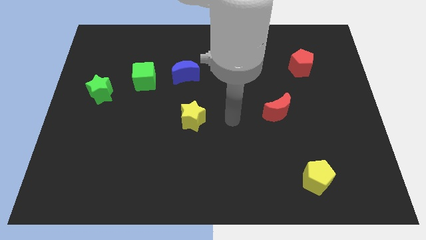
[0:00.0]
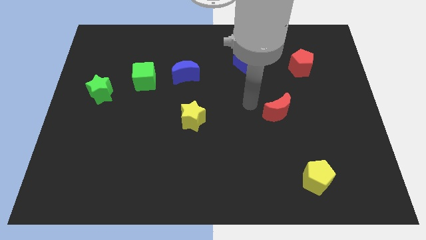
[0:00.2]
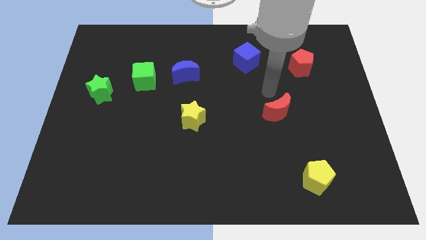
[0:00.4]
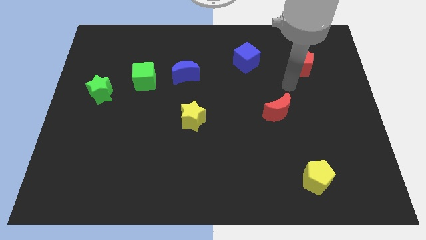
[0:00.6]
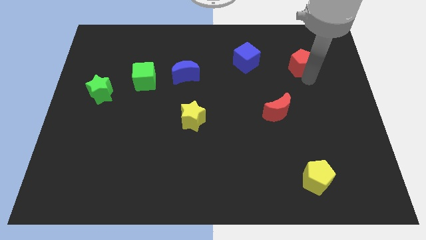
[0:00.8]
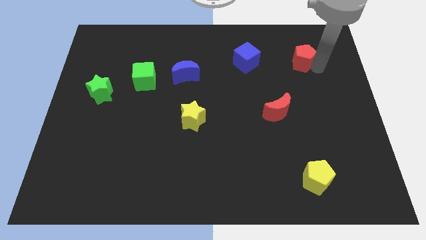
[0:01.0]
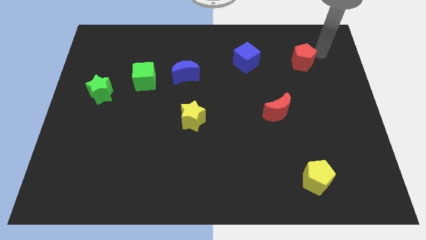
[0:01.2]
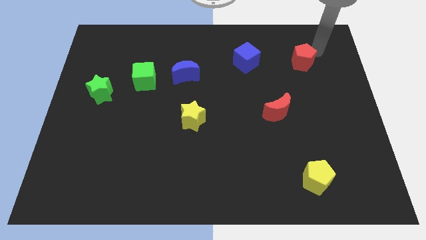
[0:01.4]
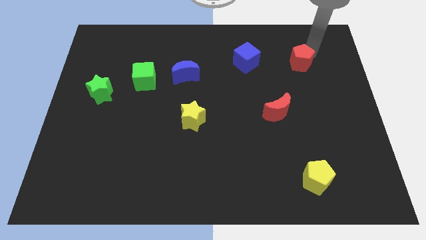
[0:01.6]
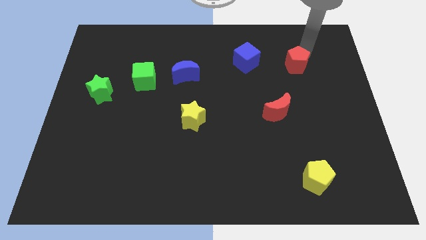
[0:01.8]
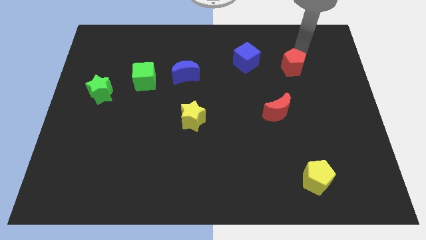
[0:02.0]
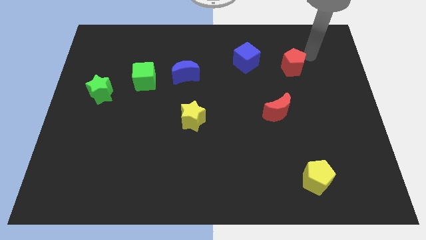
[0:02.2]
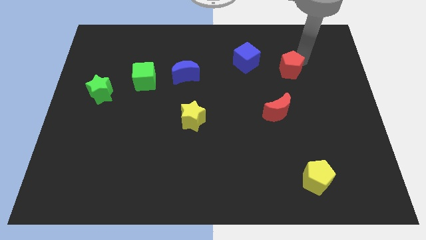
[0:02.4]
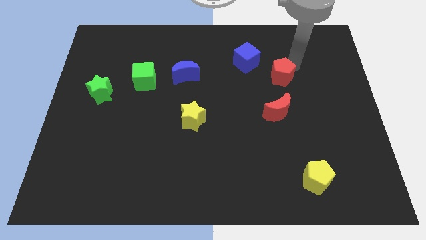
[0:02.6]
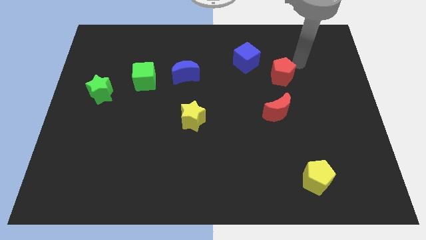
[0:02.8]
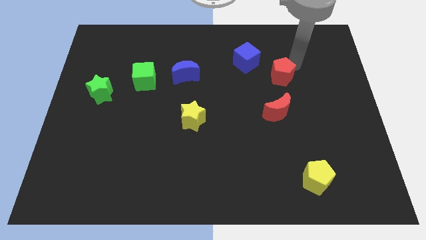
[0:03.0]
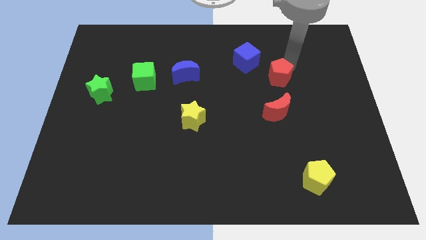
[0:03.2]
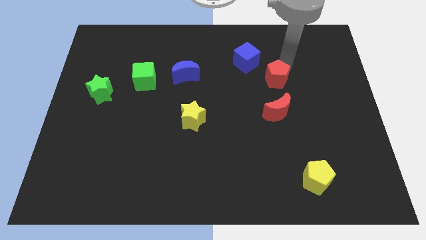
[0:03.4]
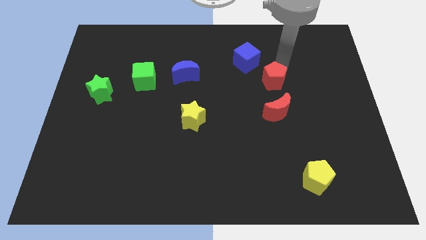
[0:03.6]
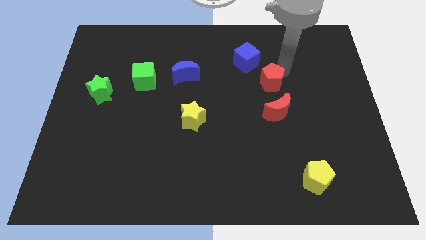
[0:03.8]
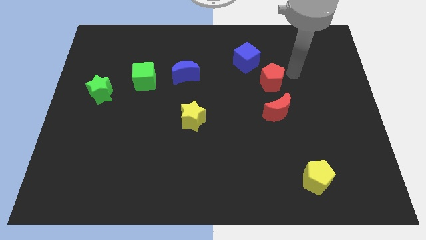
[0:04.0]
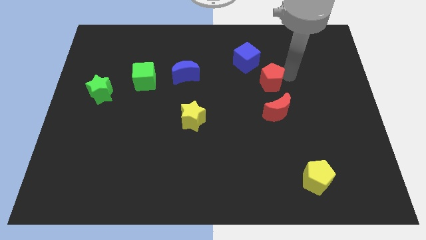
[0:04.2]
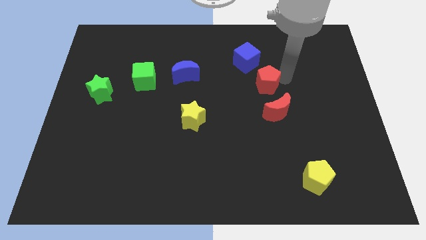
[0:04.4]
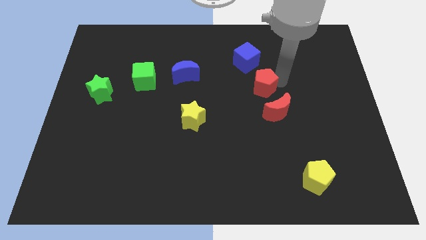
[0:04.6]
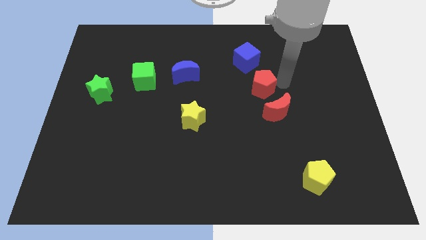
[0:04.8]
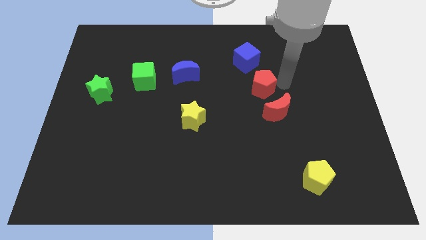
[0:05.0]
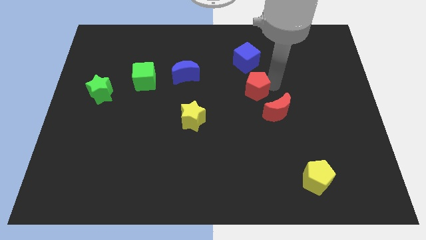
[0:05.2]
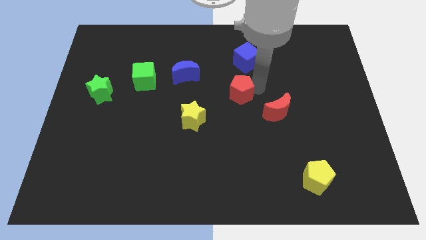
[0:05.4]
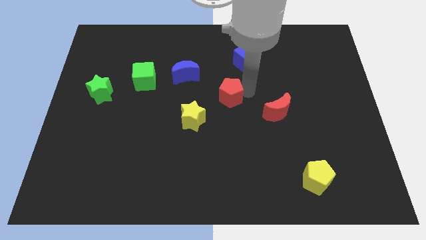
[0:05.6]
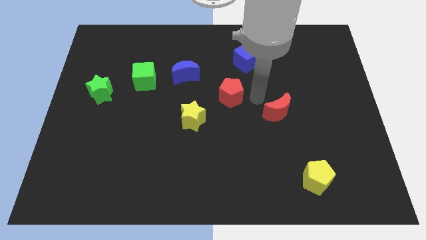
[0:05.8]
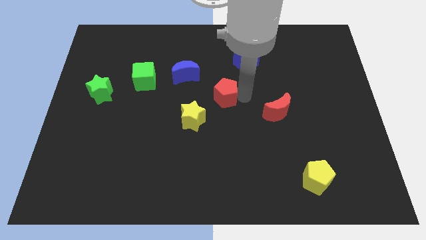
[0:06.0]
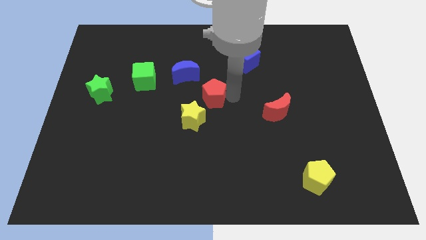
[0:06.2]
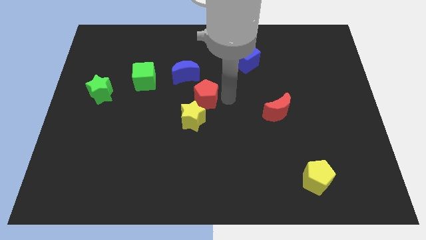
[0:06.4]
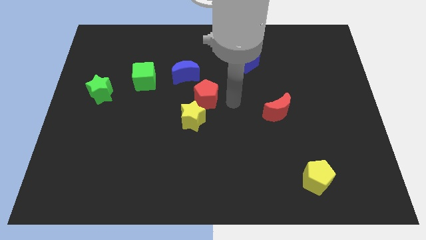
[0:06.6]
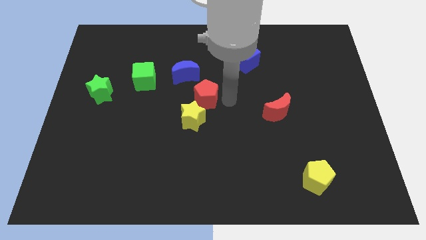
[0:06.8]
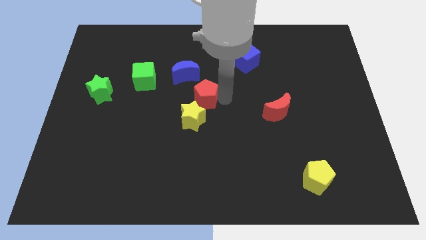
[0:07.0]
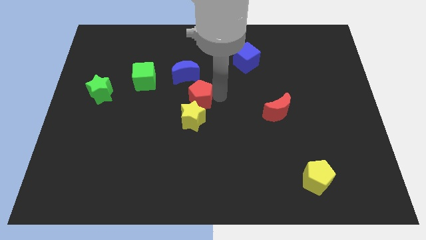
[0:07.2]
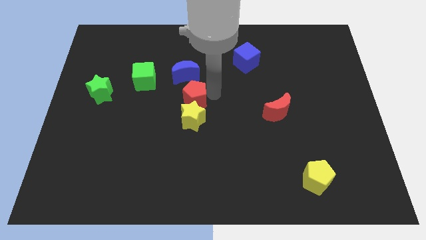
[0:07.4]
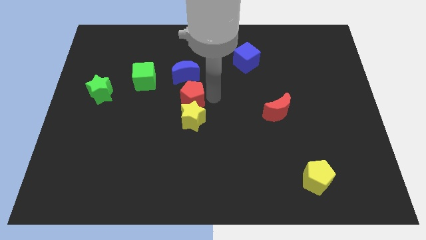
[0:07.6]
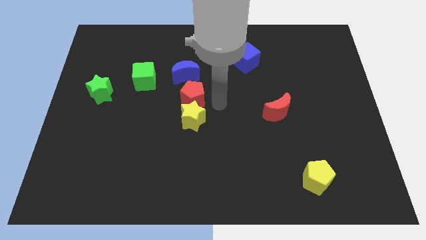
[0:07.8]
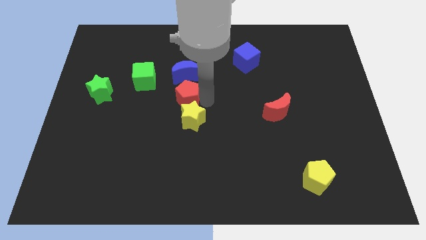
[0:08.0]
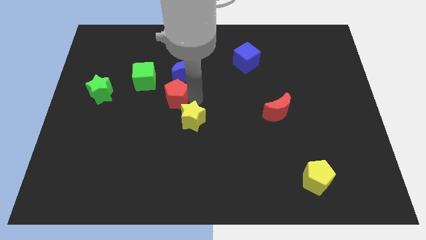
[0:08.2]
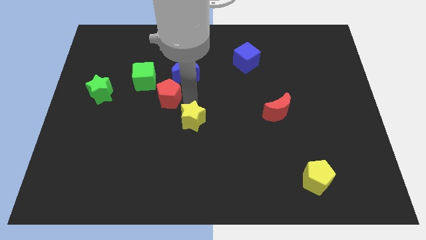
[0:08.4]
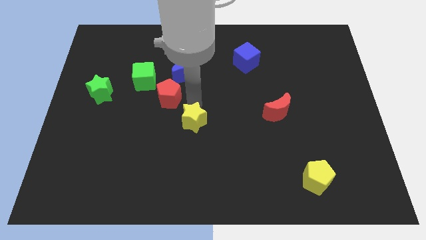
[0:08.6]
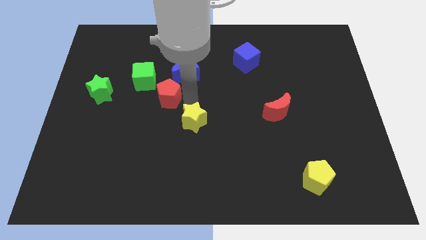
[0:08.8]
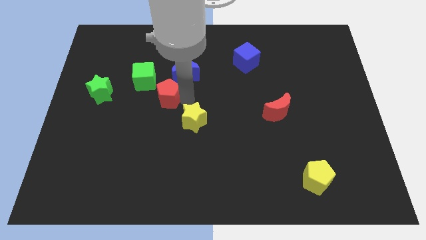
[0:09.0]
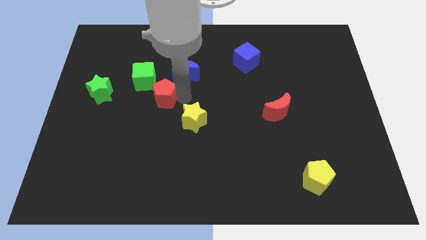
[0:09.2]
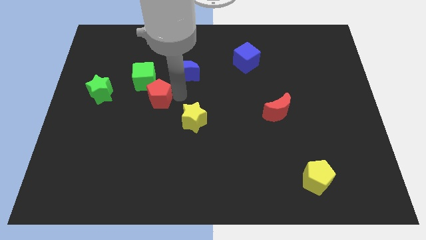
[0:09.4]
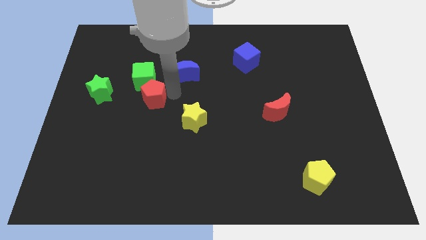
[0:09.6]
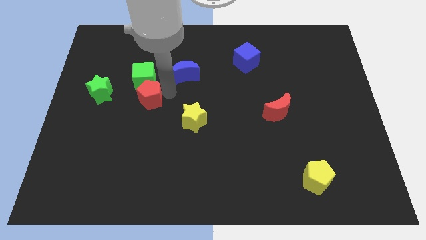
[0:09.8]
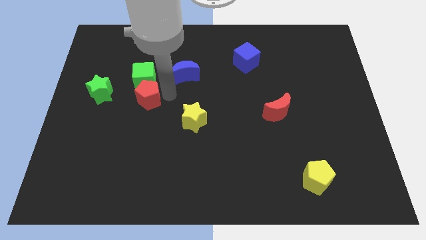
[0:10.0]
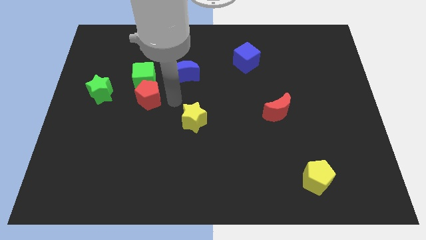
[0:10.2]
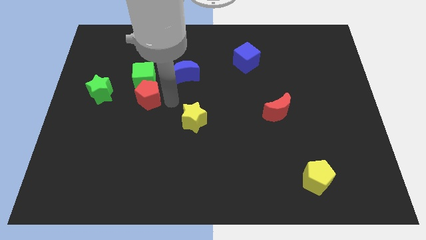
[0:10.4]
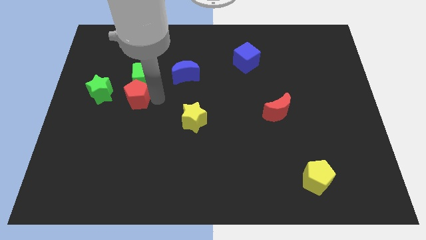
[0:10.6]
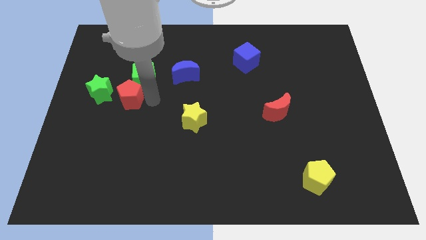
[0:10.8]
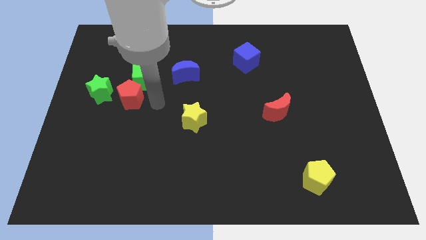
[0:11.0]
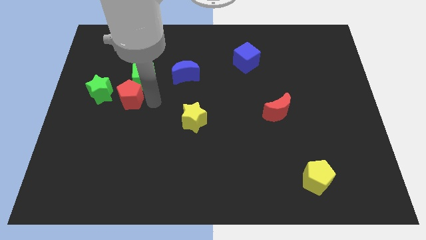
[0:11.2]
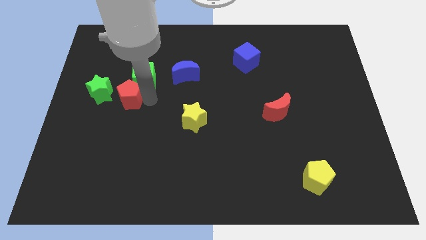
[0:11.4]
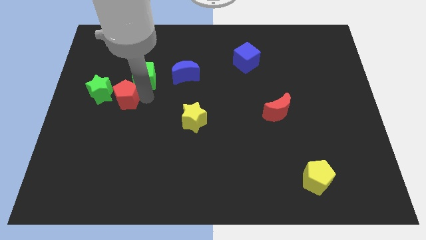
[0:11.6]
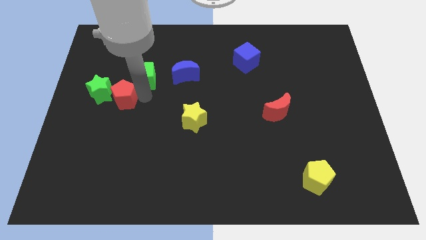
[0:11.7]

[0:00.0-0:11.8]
push the red pentagon next to the green star

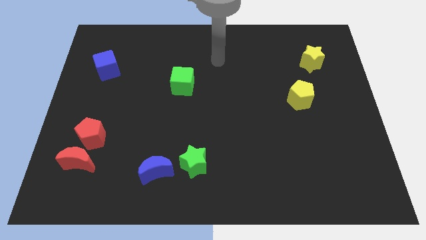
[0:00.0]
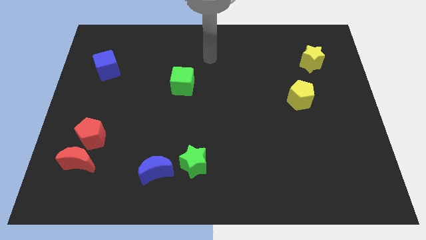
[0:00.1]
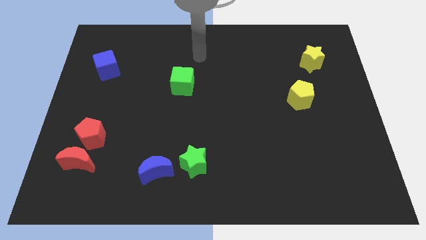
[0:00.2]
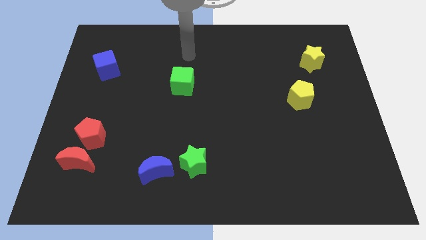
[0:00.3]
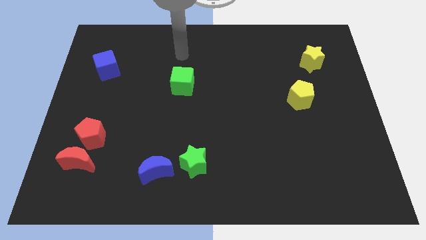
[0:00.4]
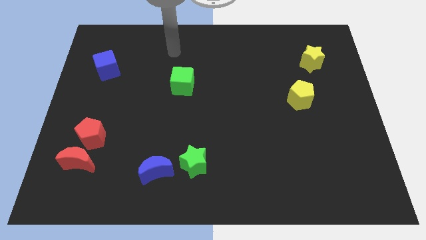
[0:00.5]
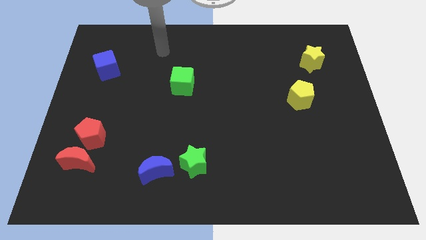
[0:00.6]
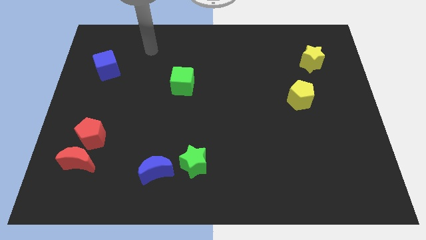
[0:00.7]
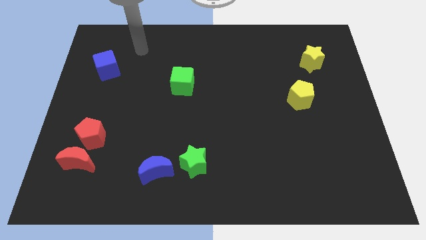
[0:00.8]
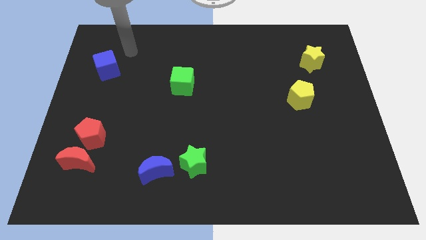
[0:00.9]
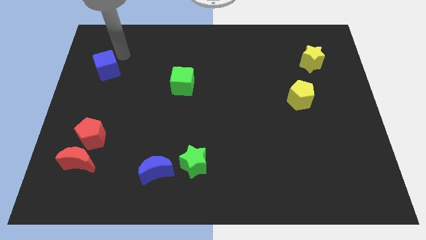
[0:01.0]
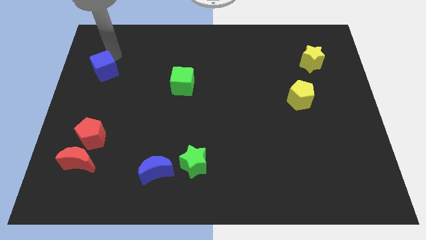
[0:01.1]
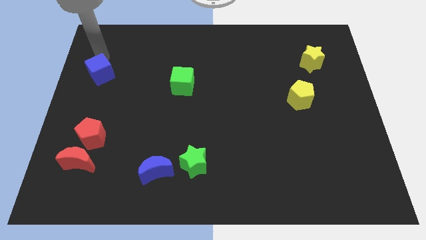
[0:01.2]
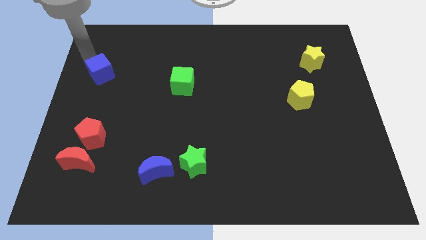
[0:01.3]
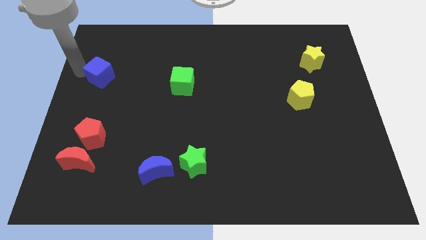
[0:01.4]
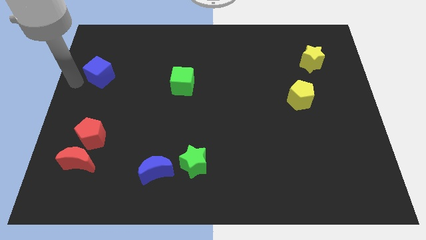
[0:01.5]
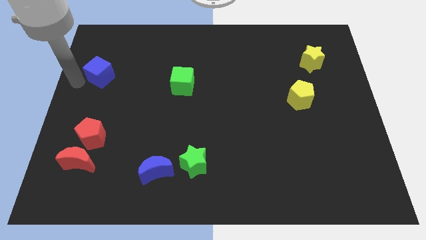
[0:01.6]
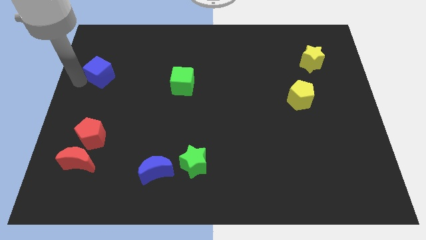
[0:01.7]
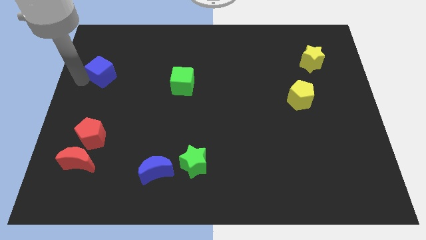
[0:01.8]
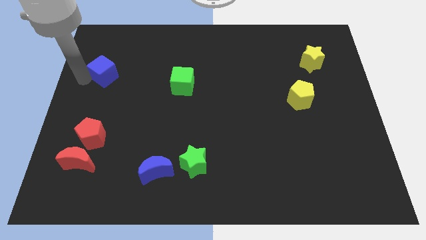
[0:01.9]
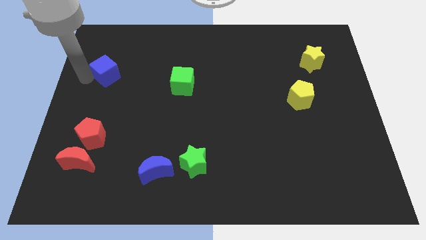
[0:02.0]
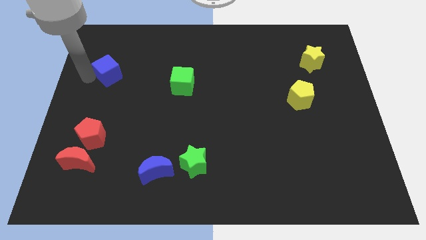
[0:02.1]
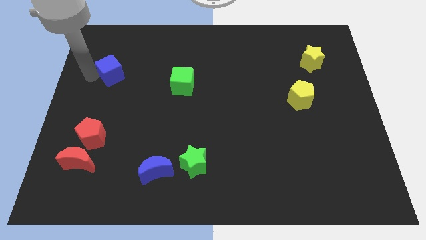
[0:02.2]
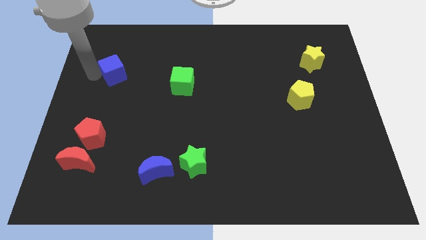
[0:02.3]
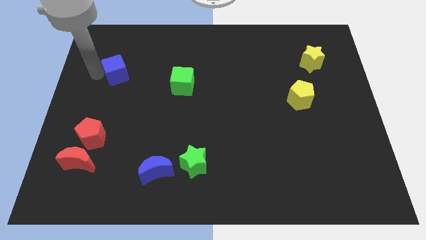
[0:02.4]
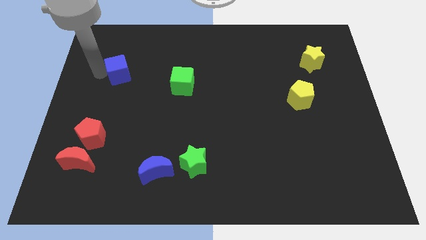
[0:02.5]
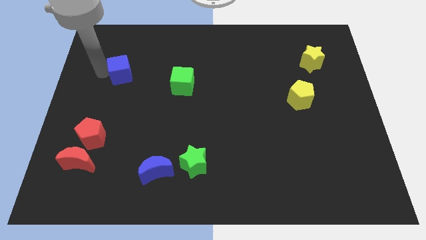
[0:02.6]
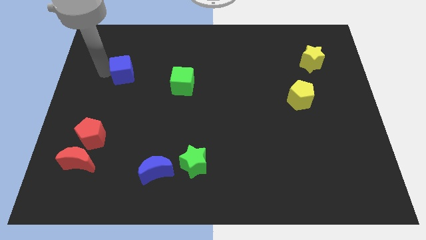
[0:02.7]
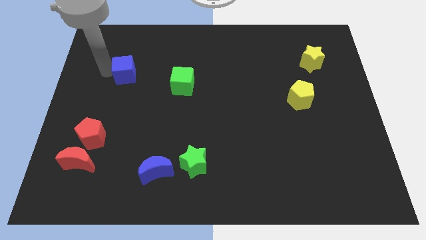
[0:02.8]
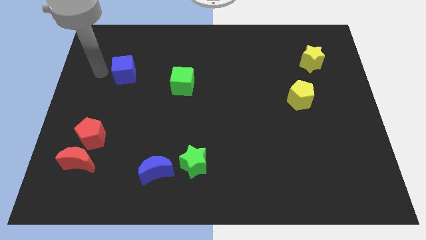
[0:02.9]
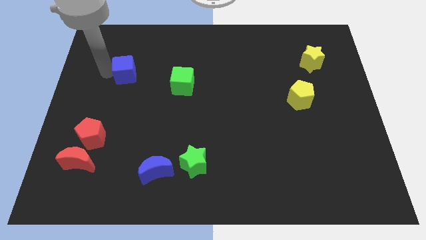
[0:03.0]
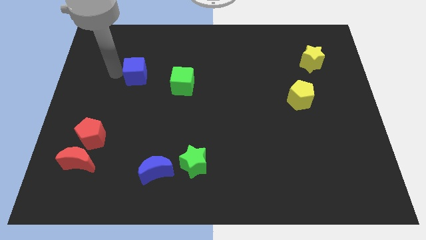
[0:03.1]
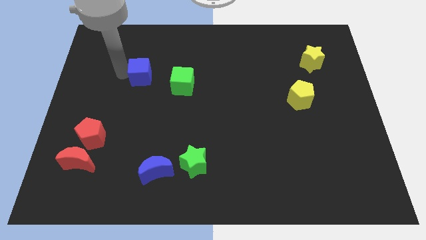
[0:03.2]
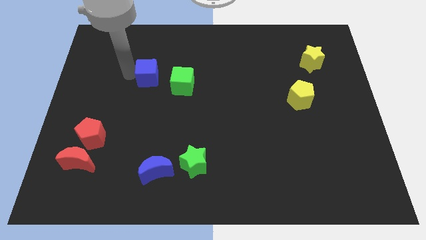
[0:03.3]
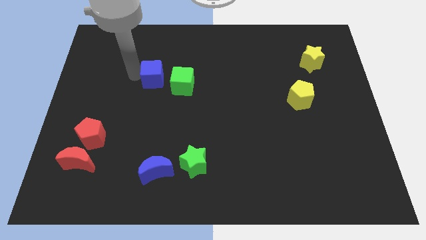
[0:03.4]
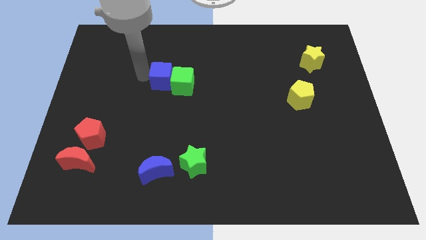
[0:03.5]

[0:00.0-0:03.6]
put the blue cube towards the green cube
